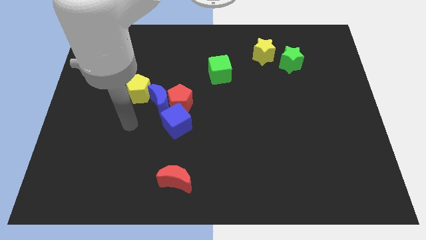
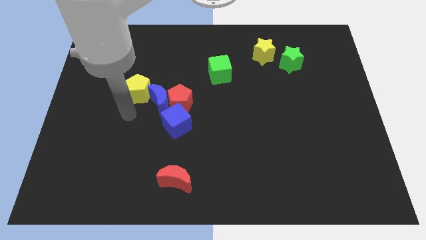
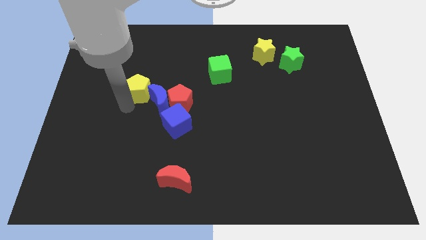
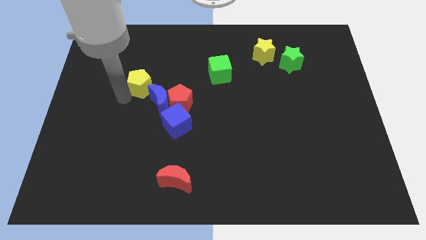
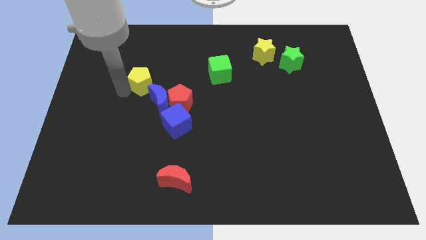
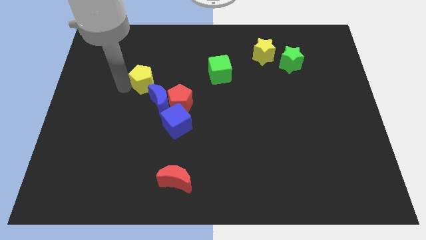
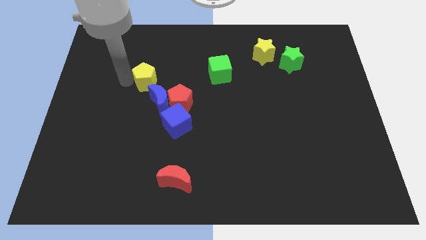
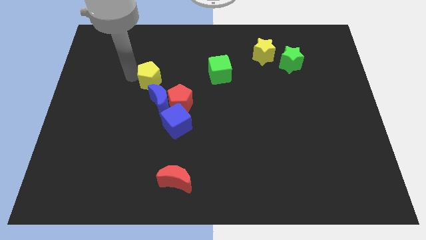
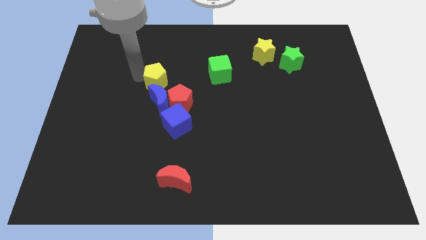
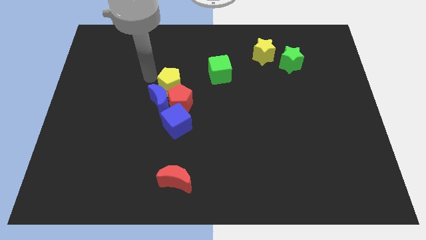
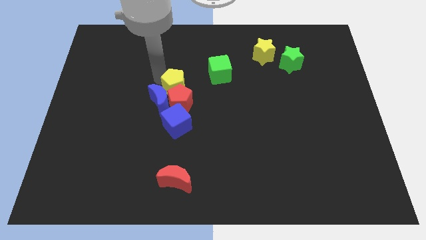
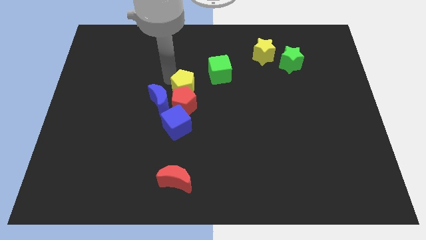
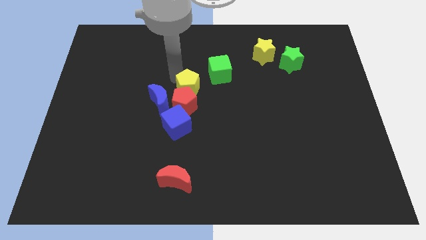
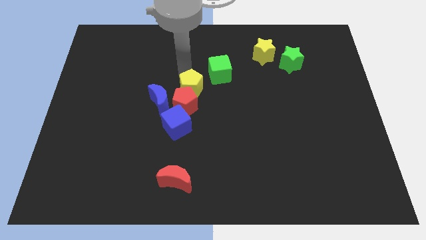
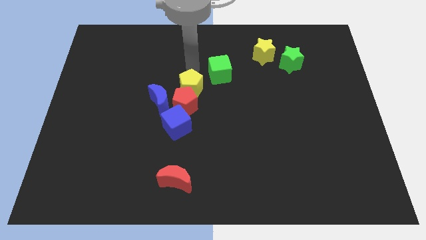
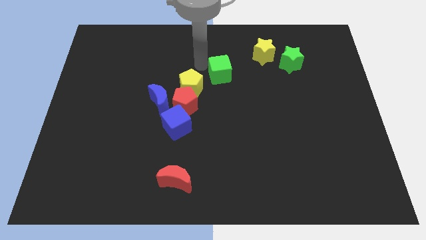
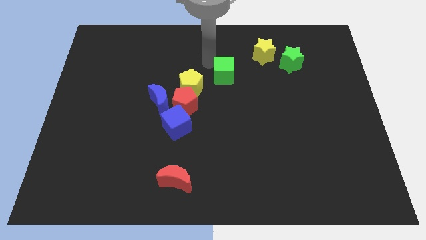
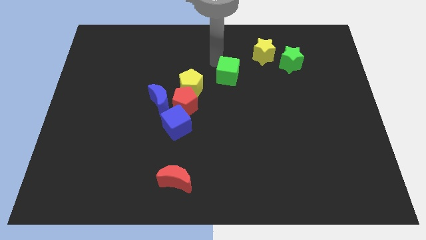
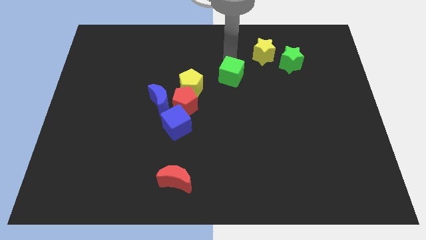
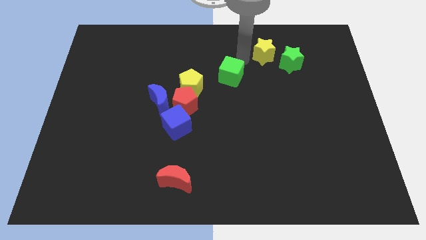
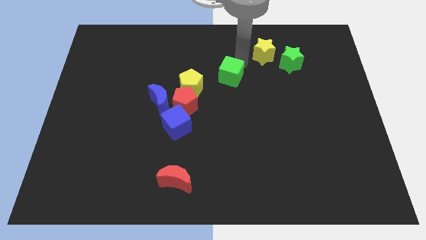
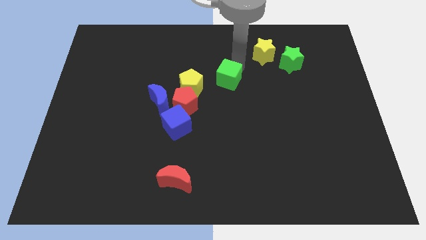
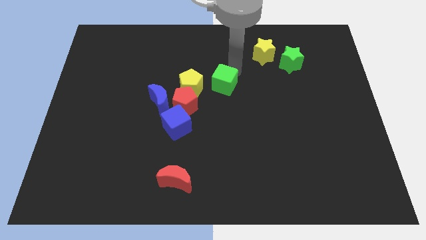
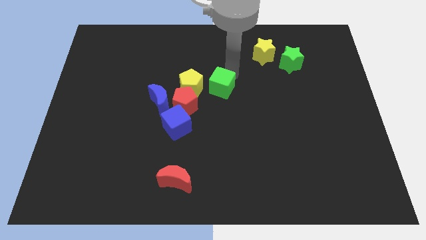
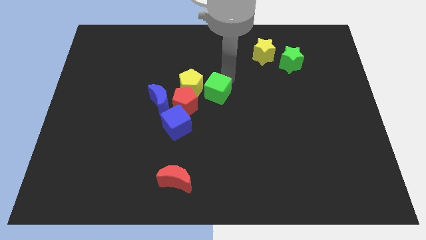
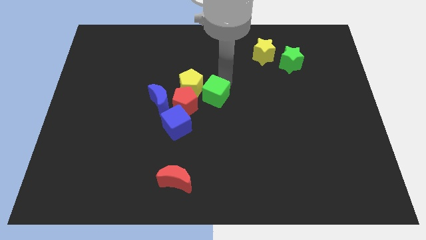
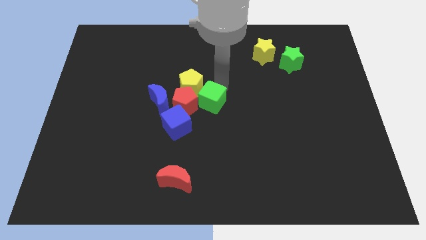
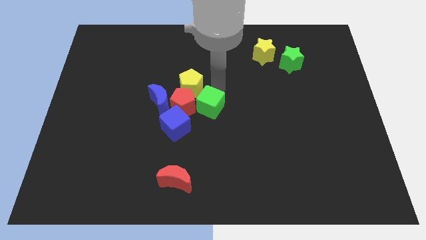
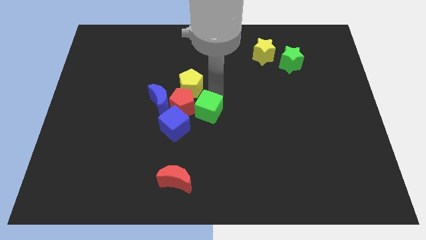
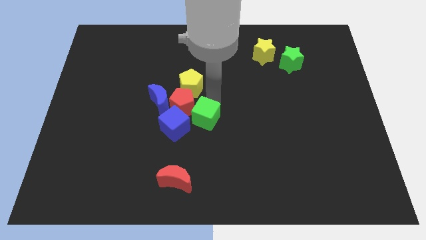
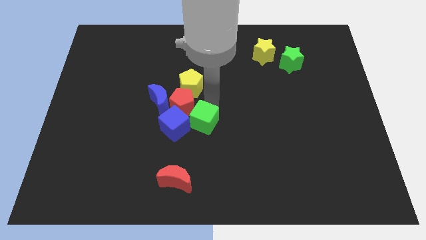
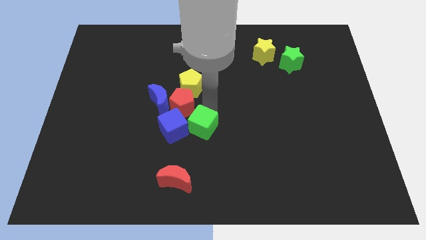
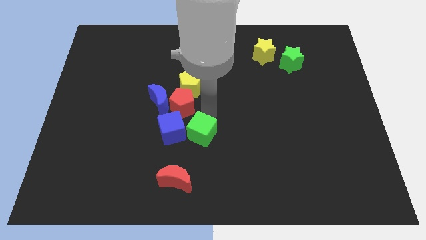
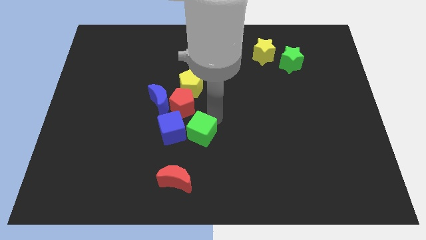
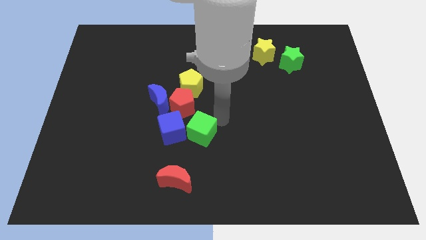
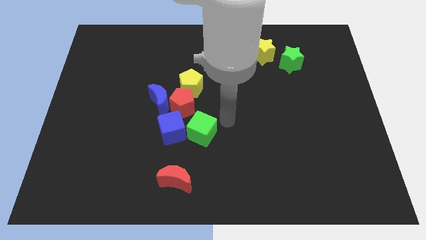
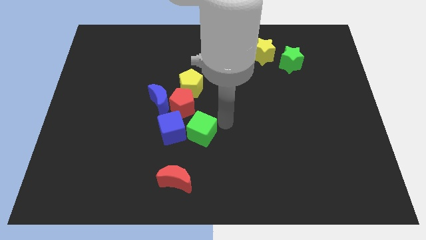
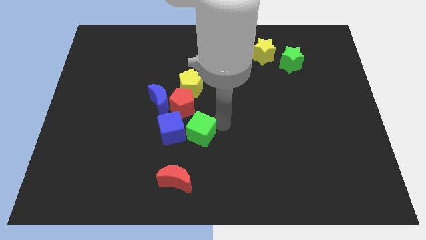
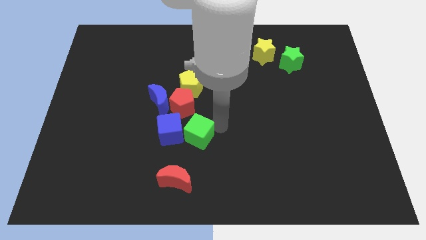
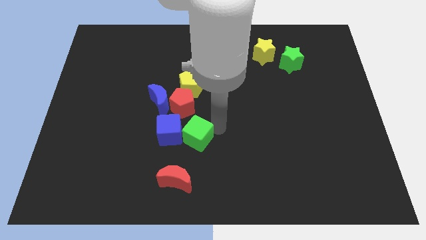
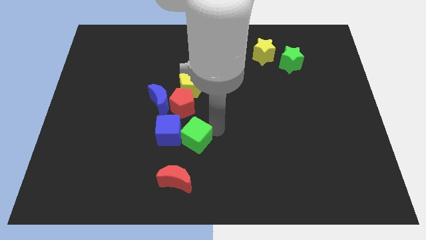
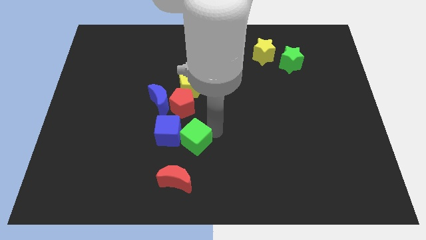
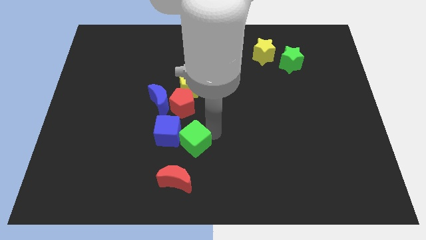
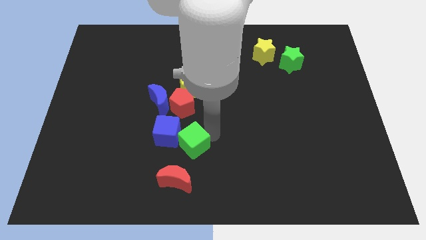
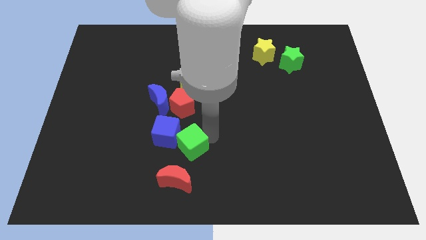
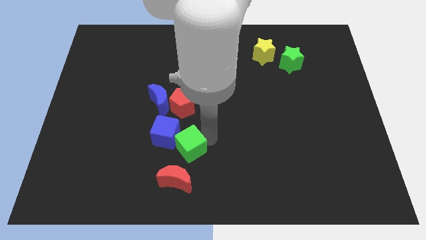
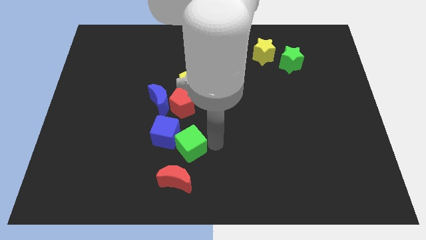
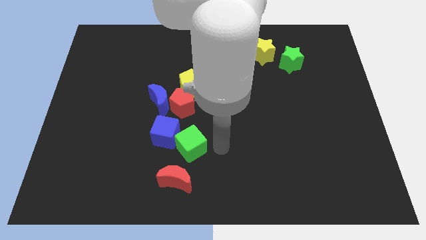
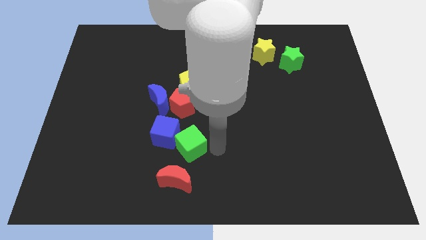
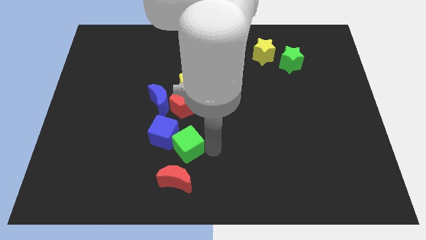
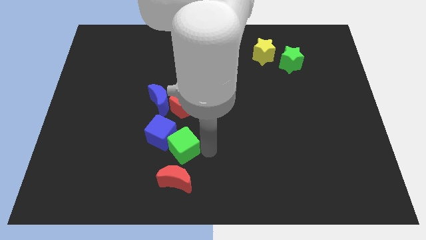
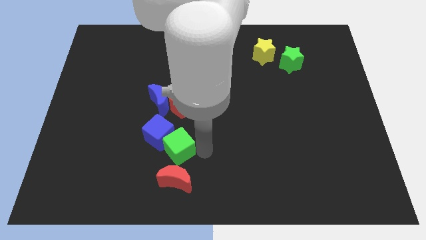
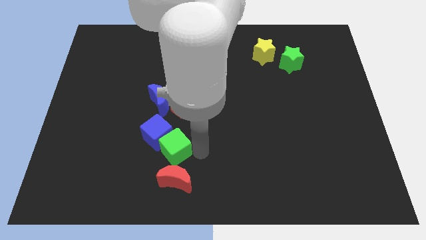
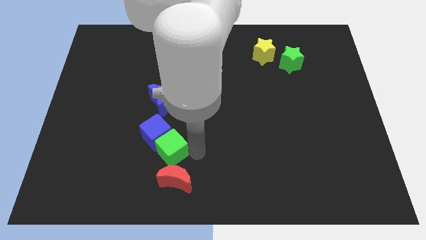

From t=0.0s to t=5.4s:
move the green cube downwards and then to the left

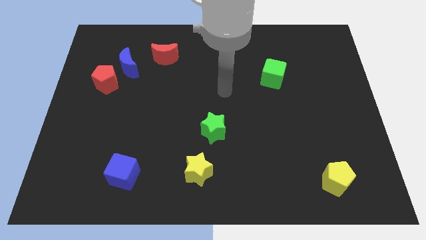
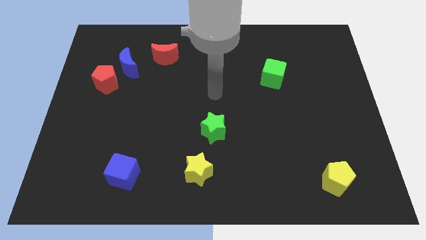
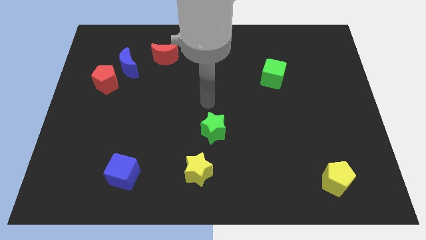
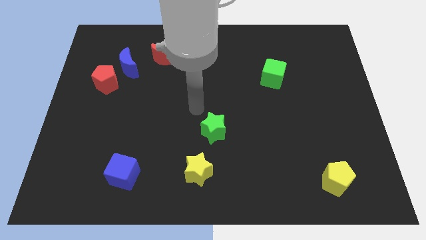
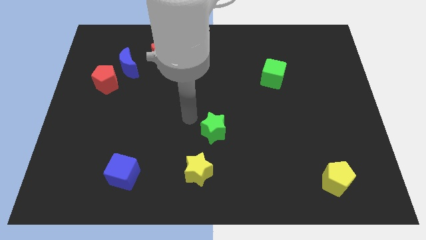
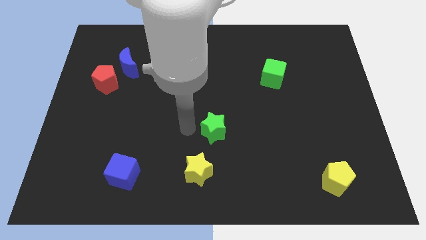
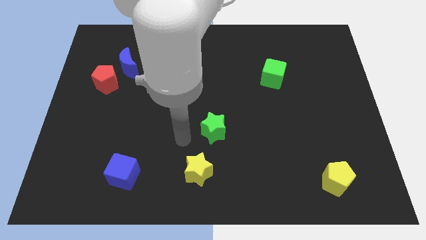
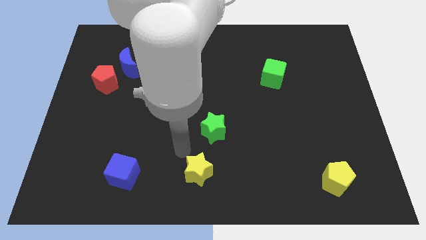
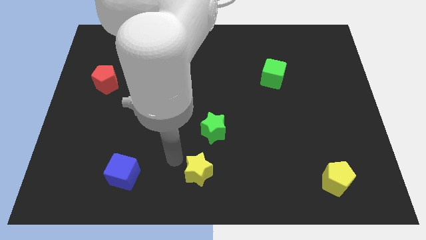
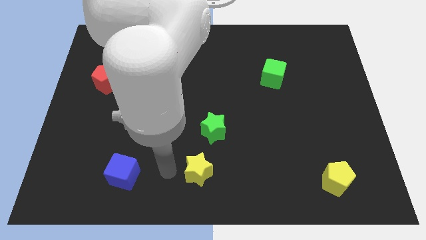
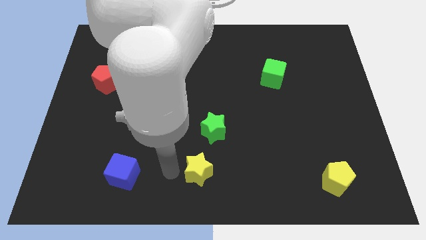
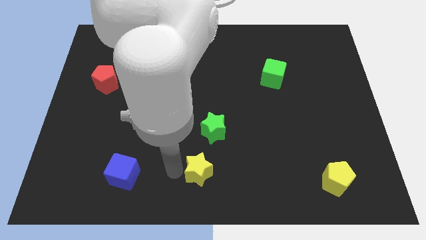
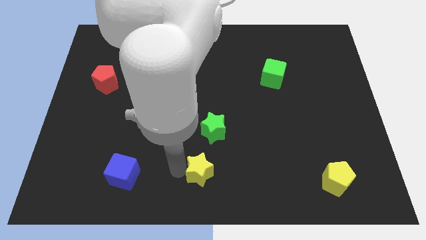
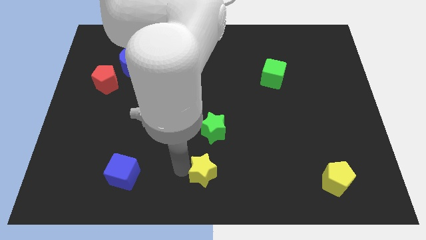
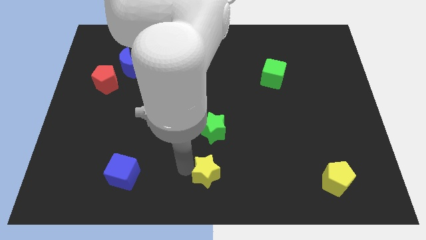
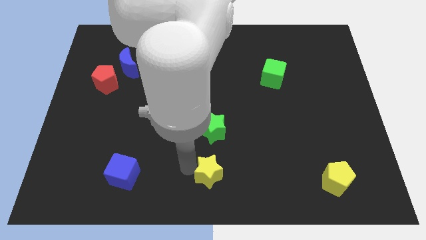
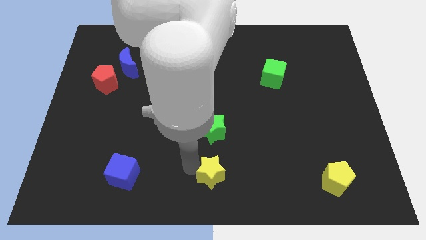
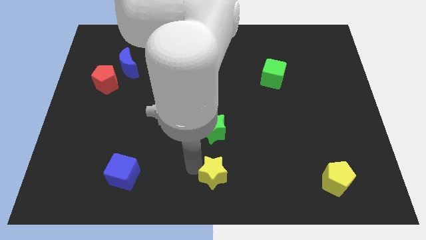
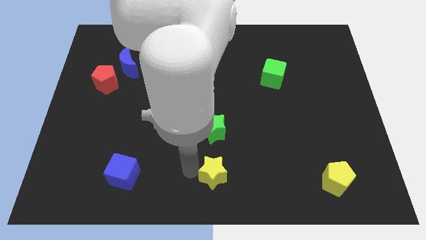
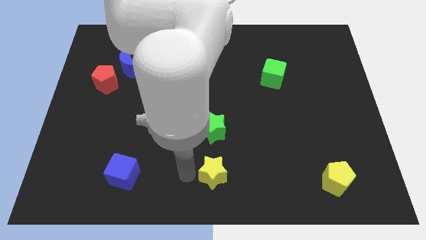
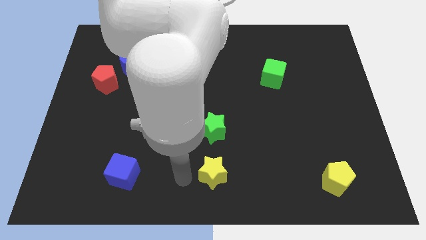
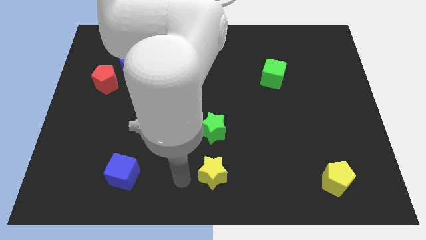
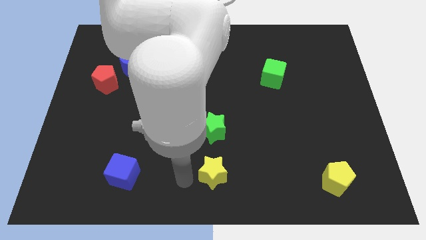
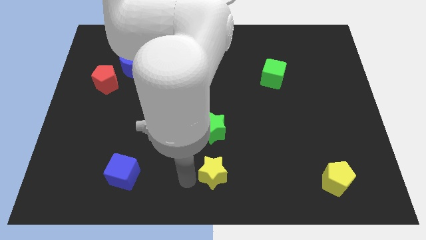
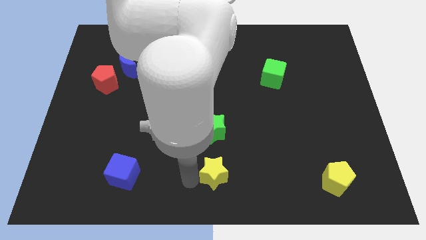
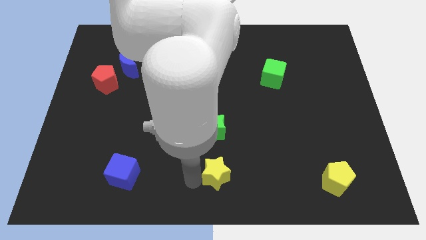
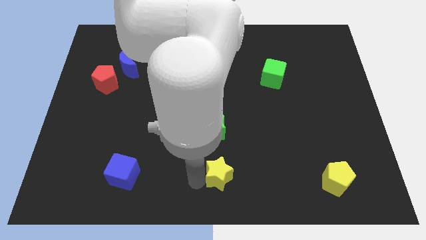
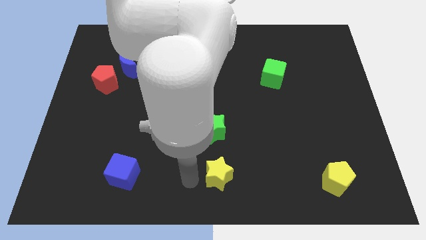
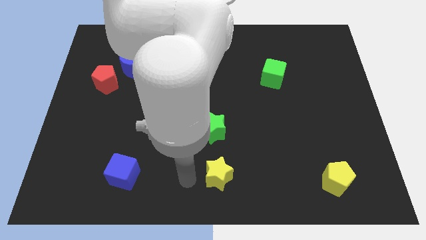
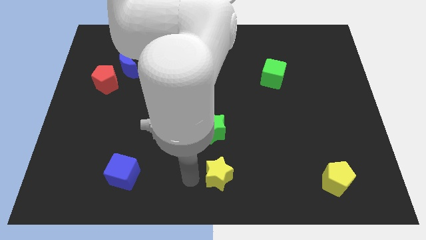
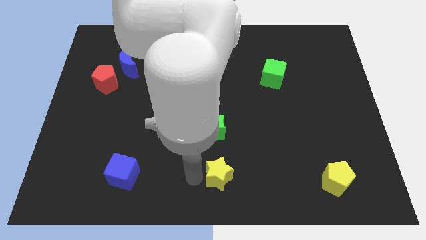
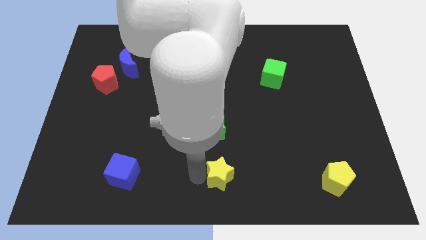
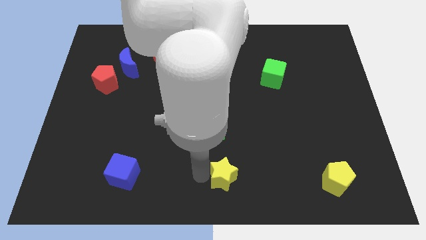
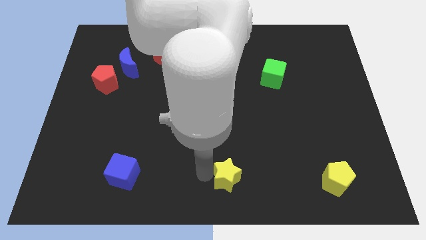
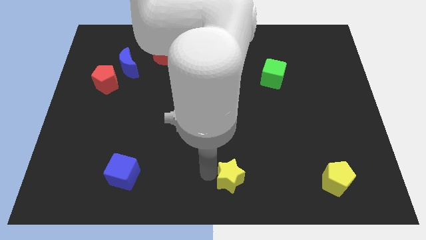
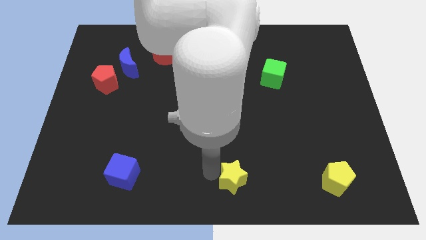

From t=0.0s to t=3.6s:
slightly move the yellow star to the right
